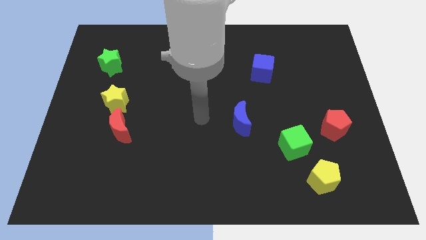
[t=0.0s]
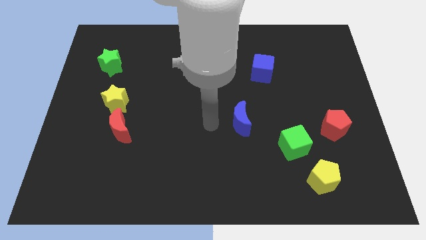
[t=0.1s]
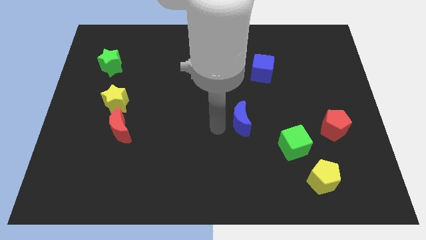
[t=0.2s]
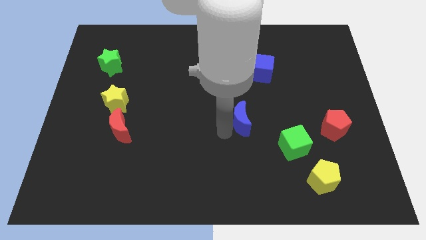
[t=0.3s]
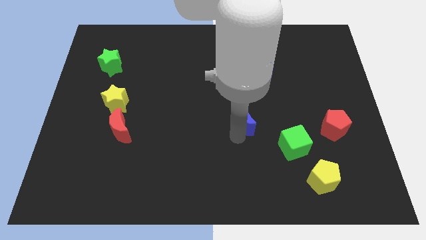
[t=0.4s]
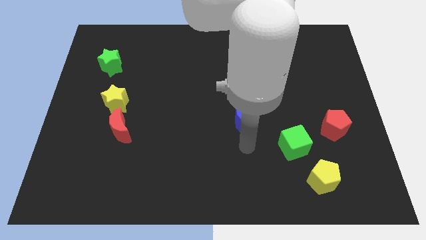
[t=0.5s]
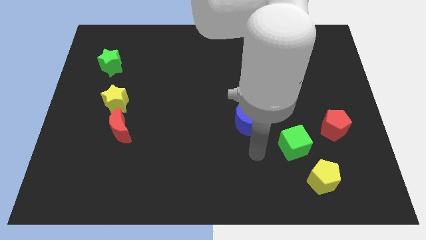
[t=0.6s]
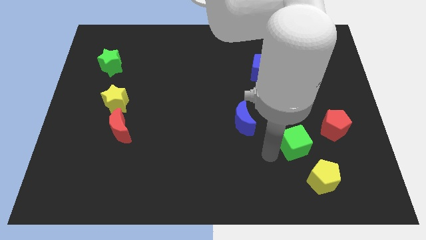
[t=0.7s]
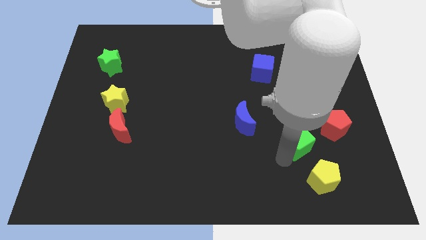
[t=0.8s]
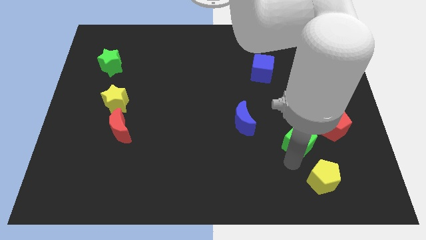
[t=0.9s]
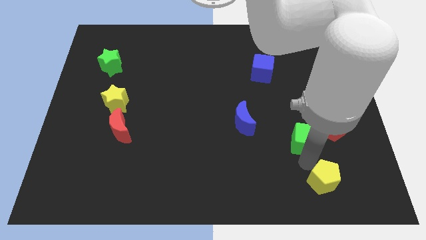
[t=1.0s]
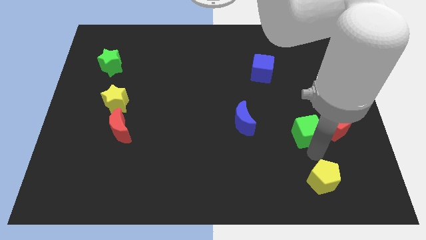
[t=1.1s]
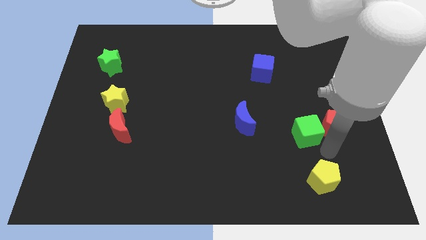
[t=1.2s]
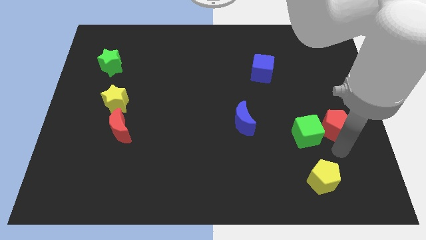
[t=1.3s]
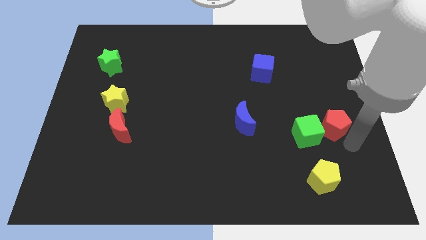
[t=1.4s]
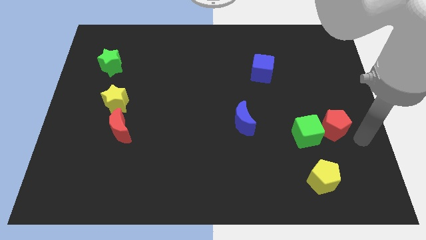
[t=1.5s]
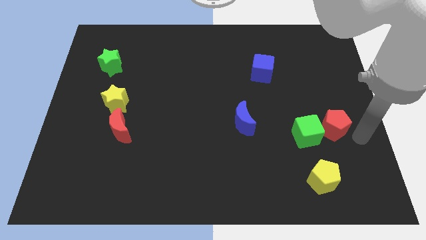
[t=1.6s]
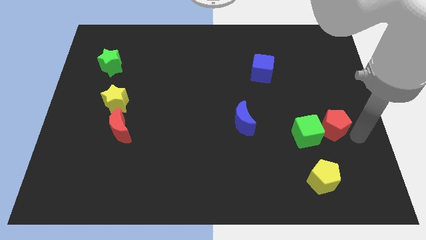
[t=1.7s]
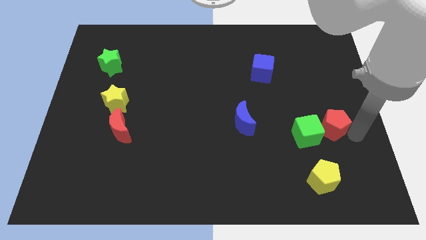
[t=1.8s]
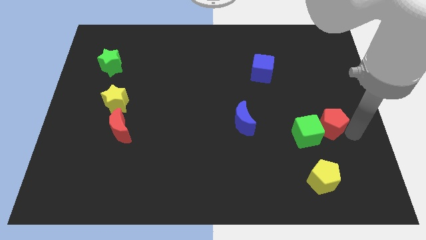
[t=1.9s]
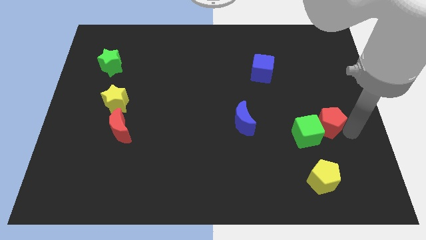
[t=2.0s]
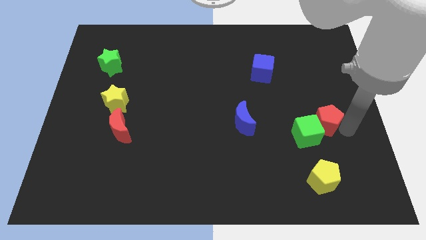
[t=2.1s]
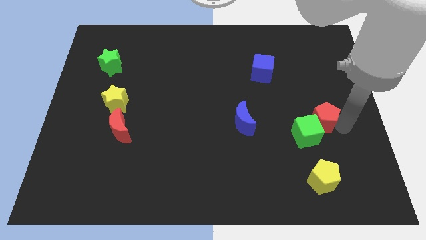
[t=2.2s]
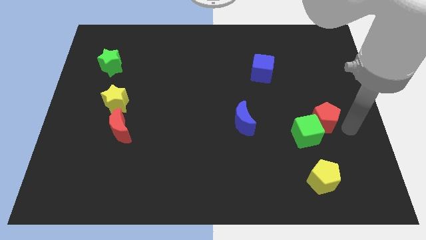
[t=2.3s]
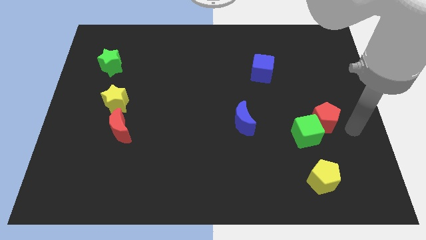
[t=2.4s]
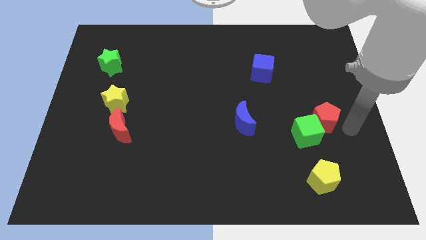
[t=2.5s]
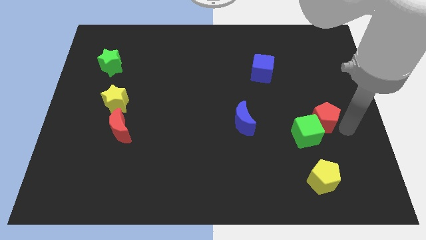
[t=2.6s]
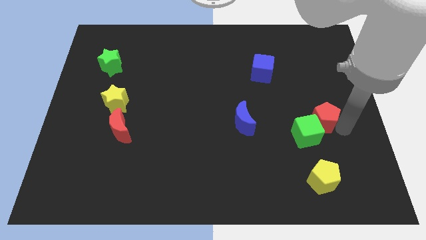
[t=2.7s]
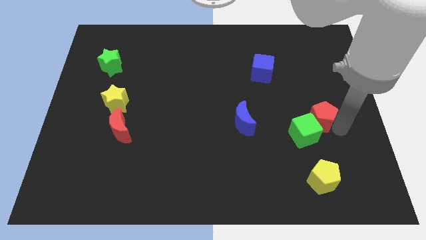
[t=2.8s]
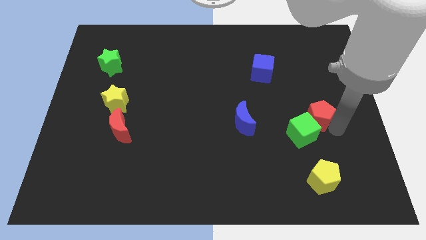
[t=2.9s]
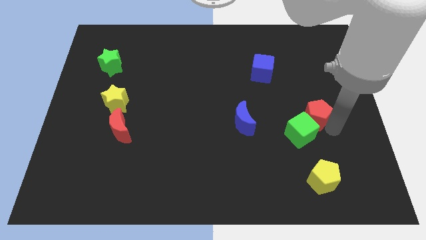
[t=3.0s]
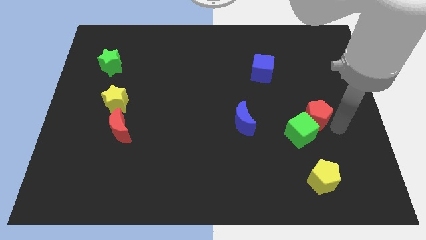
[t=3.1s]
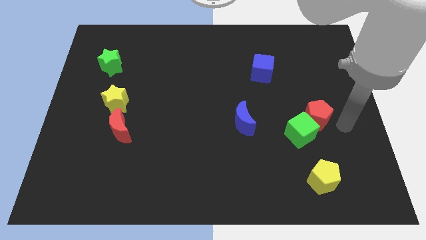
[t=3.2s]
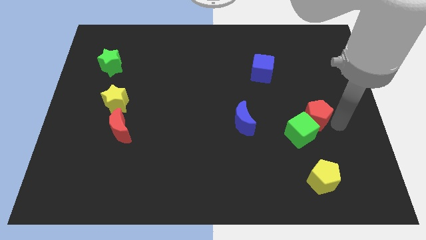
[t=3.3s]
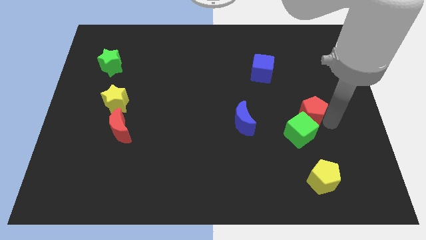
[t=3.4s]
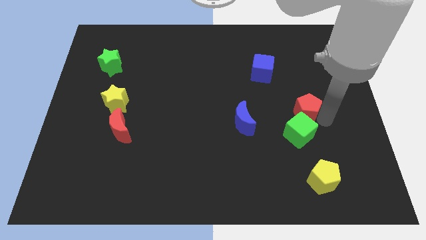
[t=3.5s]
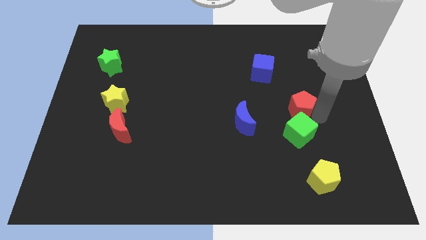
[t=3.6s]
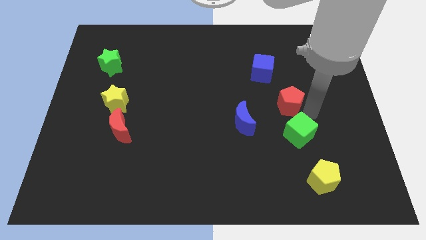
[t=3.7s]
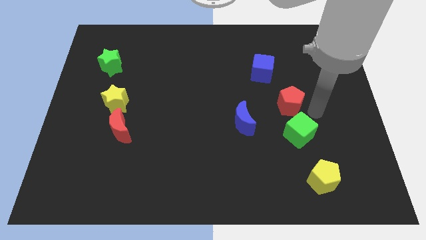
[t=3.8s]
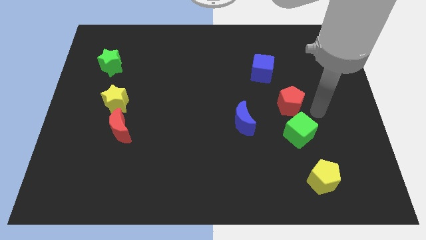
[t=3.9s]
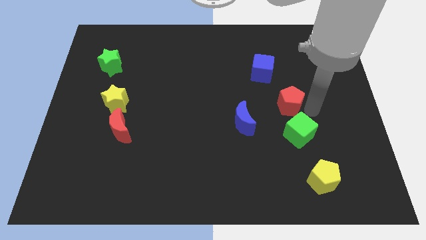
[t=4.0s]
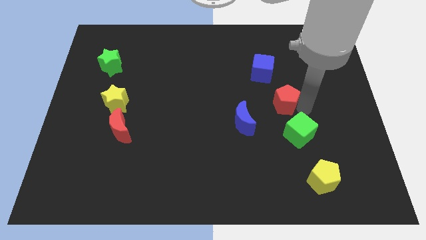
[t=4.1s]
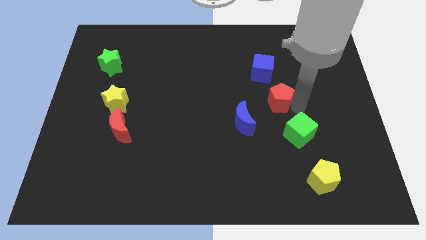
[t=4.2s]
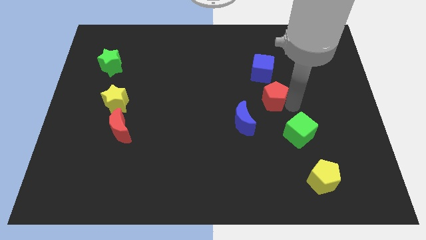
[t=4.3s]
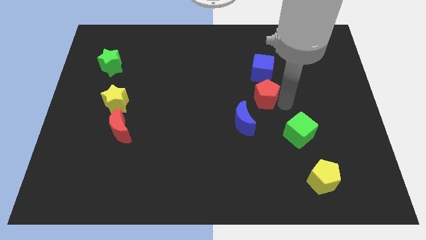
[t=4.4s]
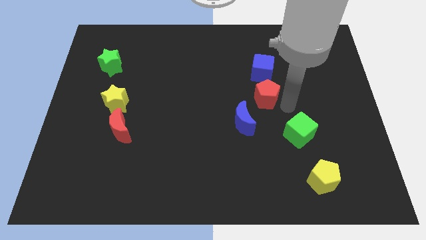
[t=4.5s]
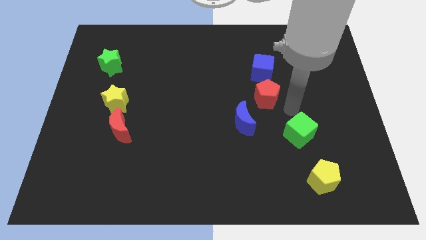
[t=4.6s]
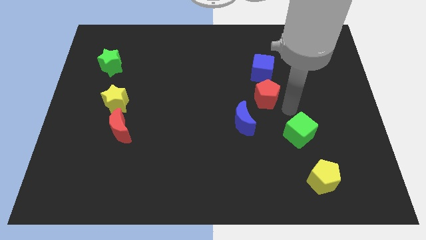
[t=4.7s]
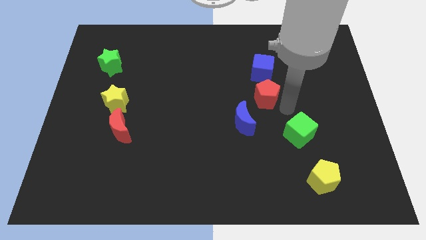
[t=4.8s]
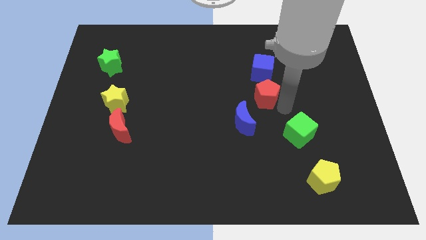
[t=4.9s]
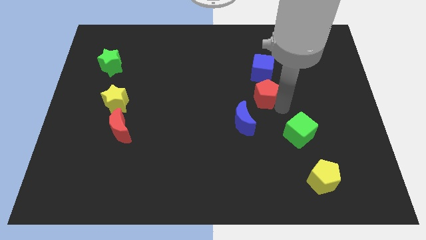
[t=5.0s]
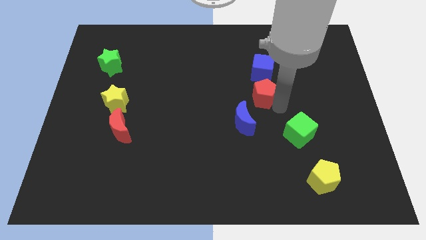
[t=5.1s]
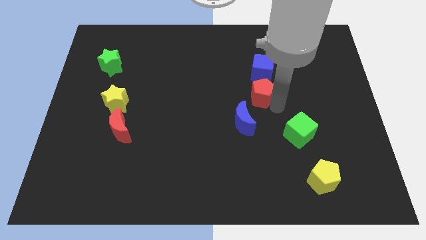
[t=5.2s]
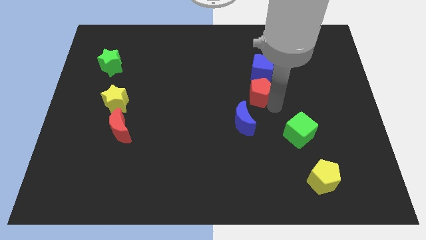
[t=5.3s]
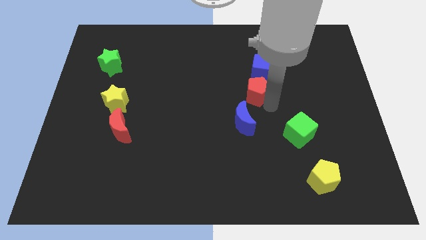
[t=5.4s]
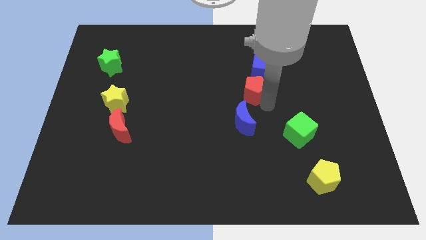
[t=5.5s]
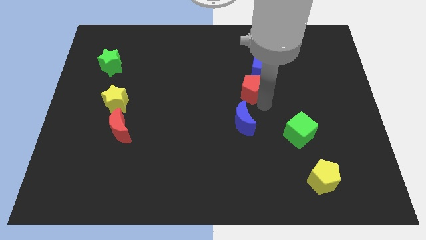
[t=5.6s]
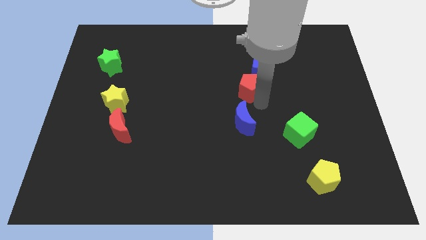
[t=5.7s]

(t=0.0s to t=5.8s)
push the red pentagon up and left diagonally

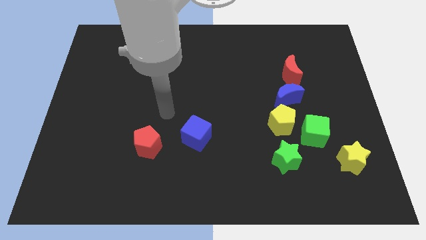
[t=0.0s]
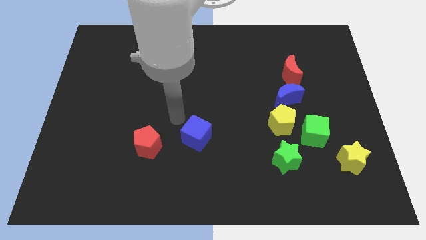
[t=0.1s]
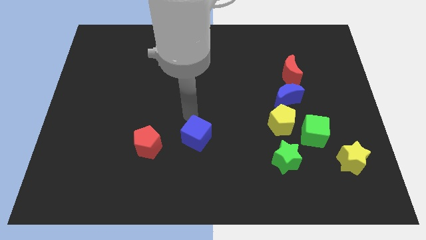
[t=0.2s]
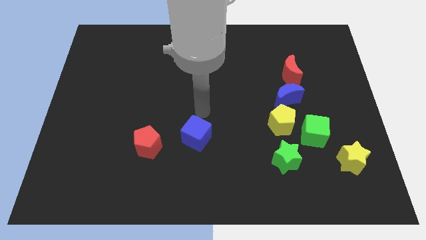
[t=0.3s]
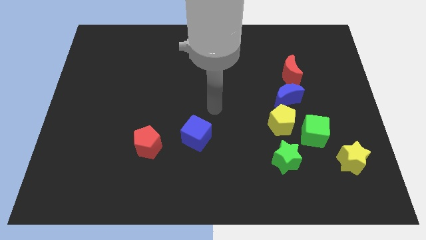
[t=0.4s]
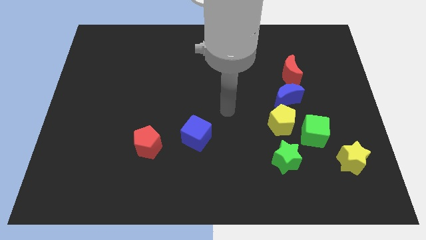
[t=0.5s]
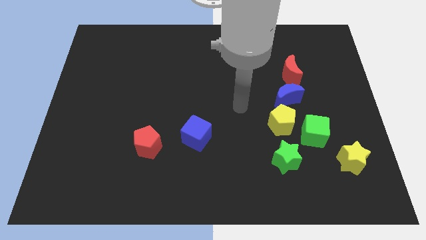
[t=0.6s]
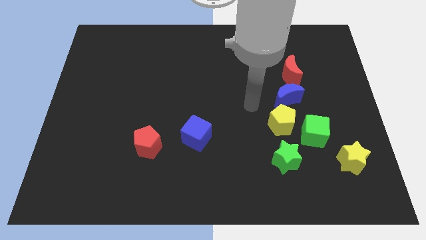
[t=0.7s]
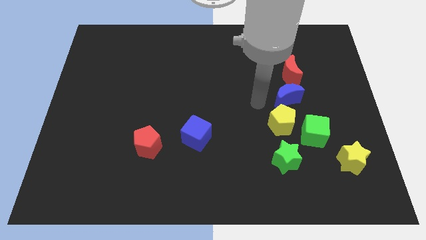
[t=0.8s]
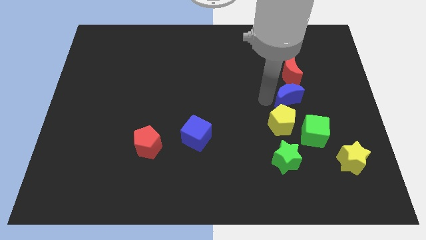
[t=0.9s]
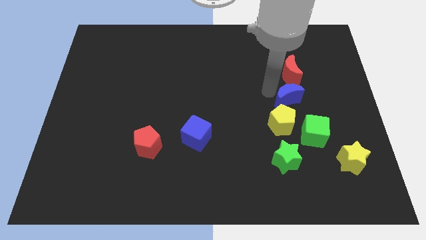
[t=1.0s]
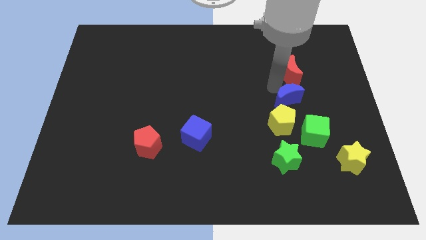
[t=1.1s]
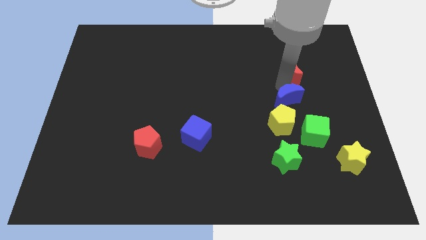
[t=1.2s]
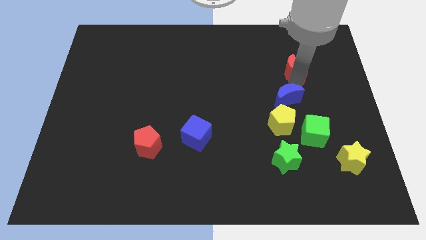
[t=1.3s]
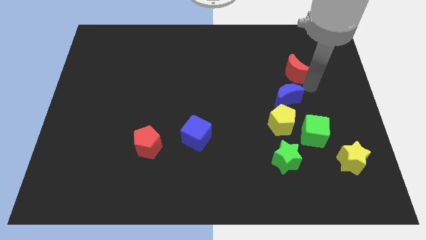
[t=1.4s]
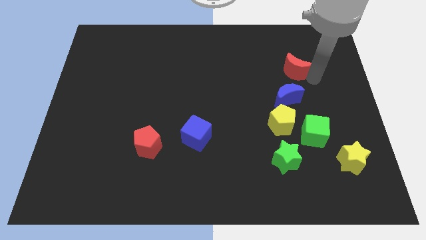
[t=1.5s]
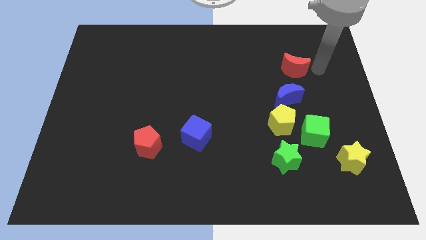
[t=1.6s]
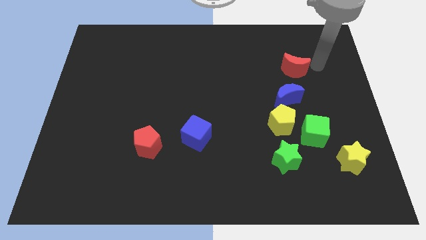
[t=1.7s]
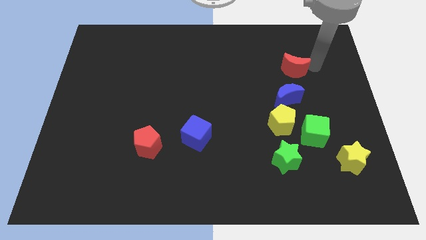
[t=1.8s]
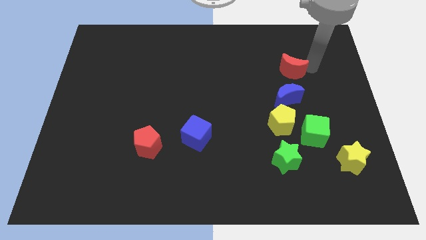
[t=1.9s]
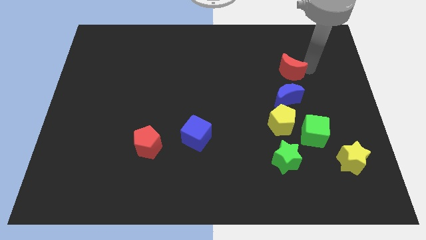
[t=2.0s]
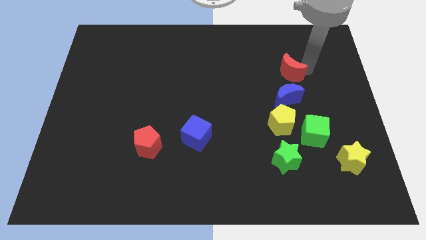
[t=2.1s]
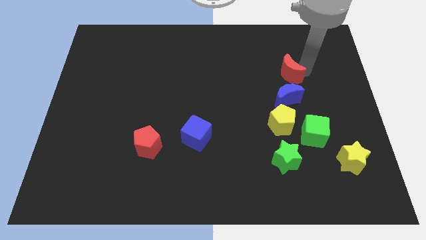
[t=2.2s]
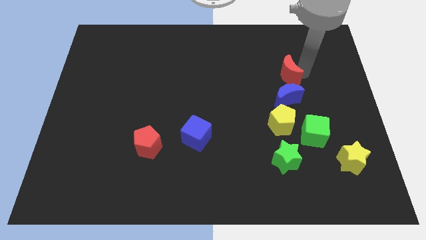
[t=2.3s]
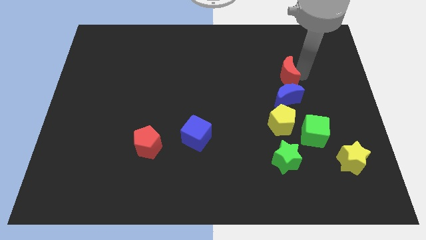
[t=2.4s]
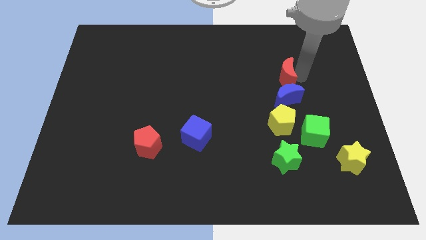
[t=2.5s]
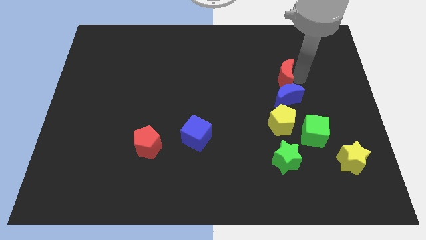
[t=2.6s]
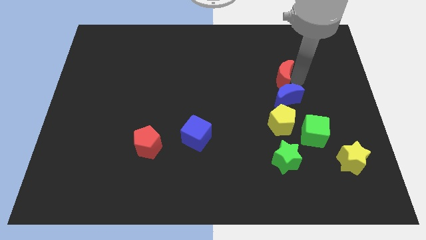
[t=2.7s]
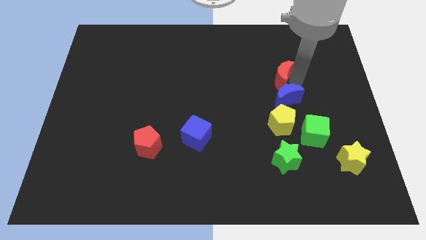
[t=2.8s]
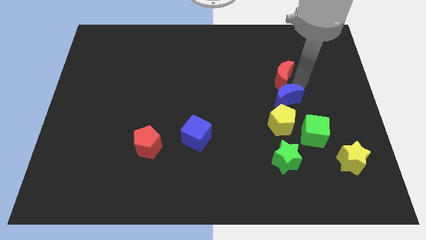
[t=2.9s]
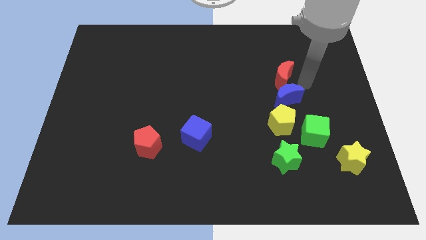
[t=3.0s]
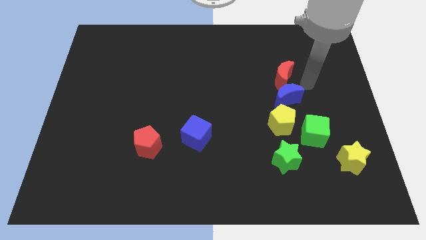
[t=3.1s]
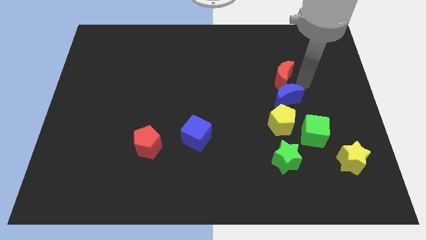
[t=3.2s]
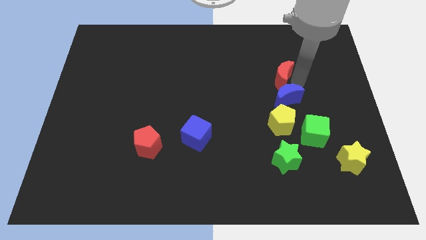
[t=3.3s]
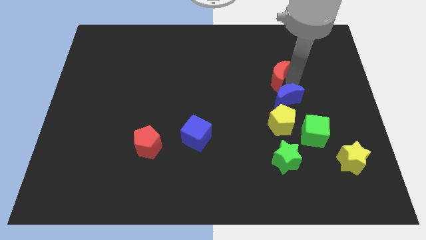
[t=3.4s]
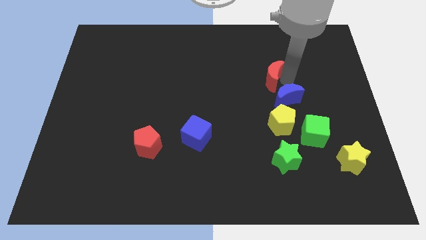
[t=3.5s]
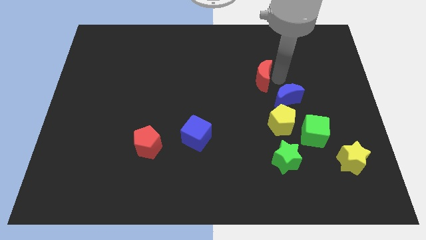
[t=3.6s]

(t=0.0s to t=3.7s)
slide the red moon left a bit
